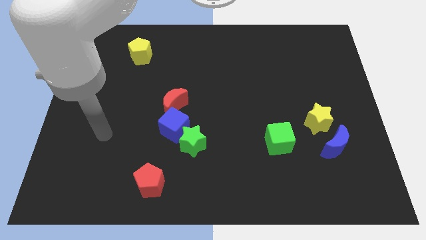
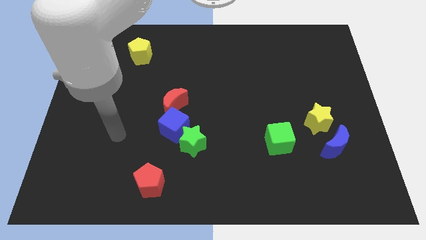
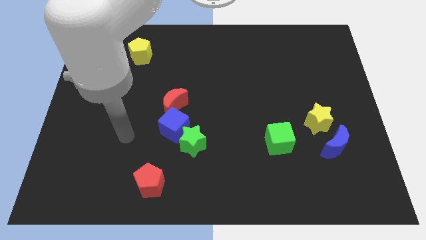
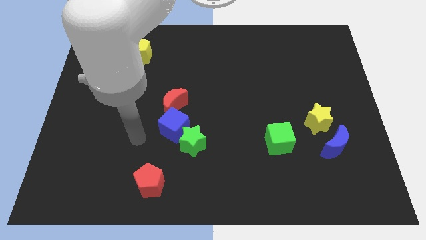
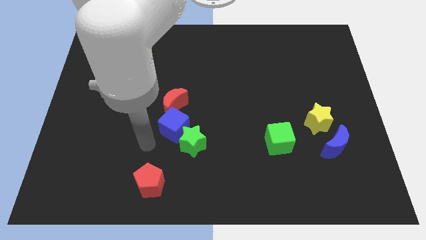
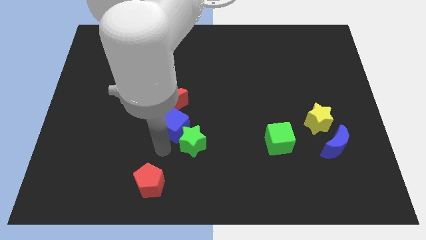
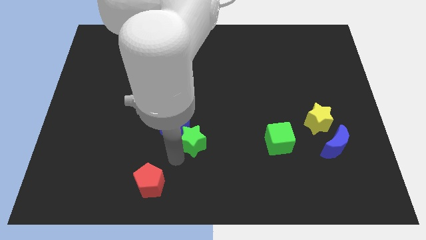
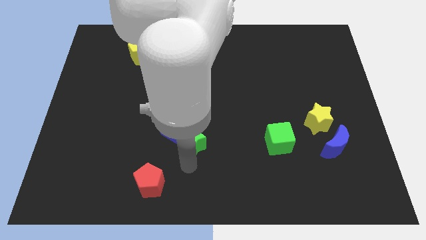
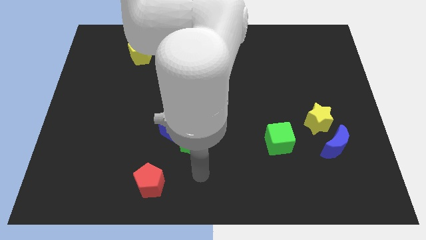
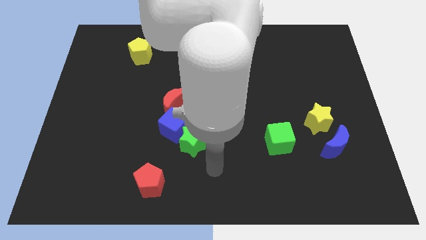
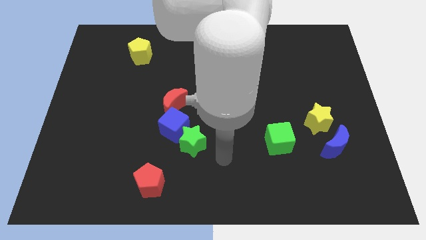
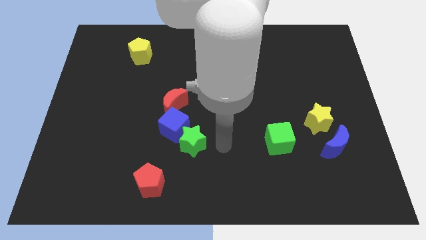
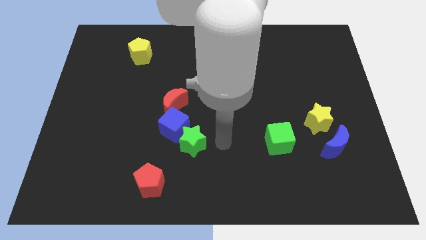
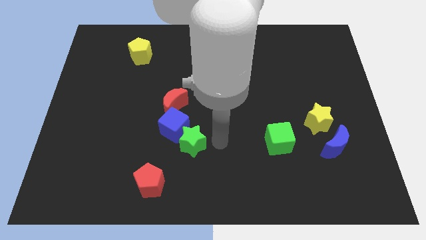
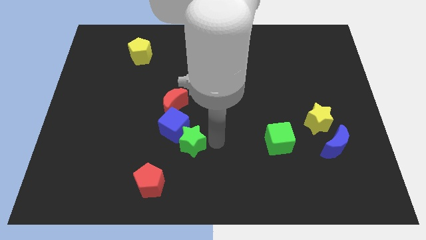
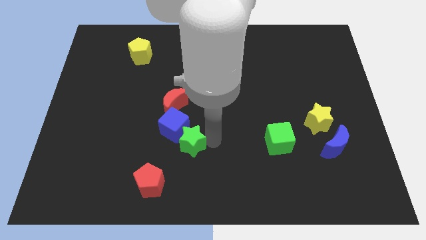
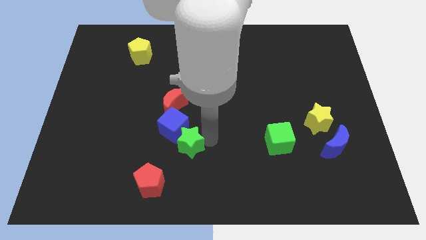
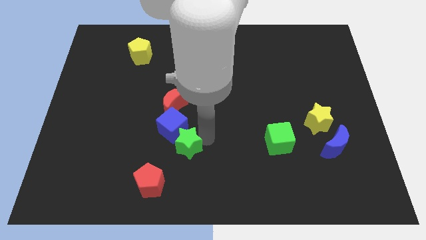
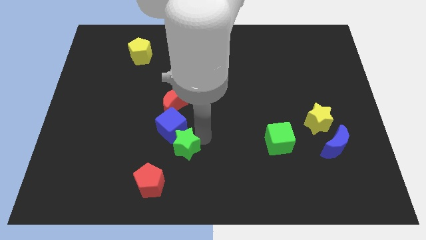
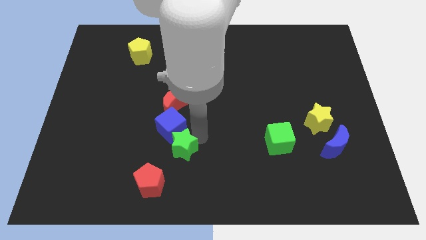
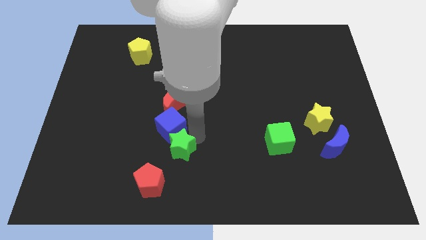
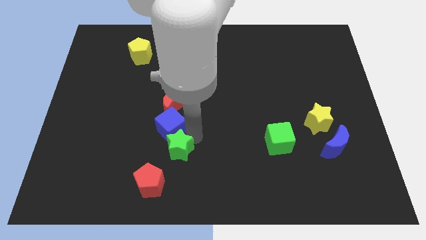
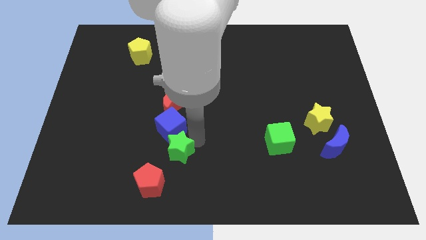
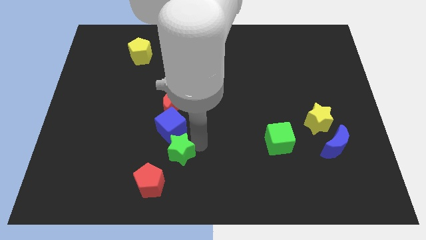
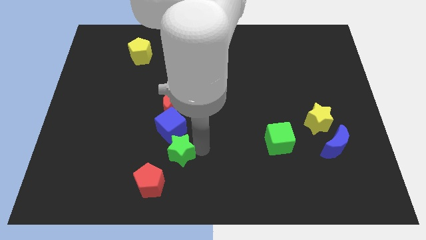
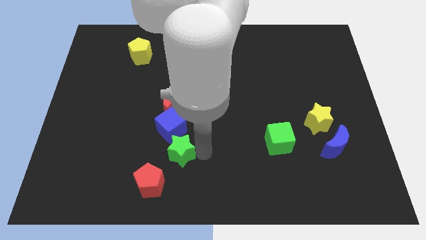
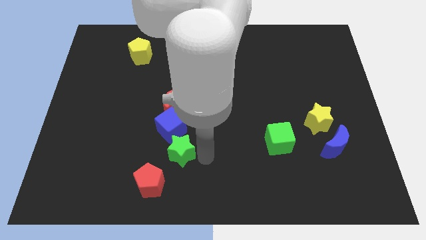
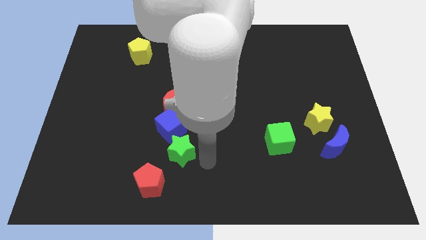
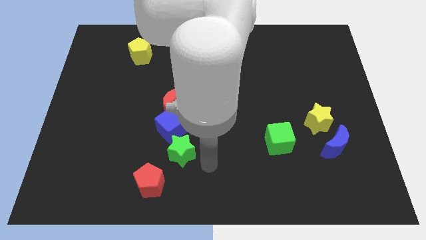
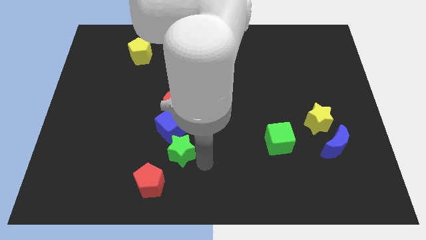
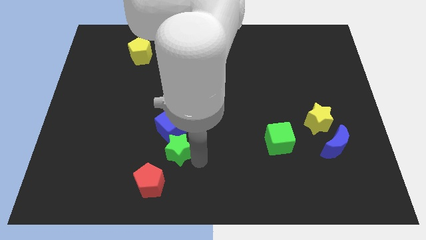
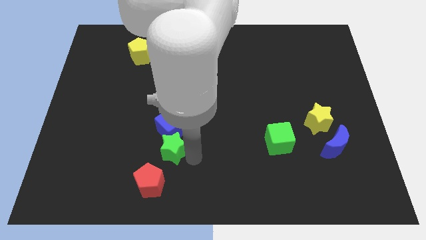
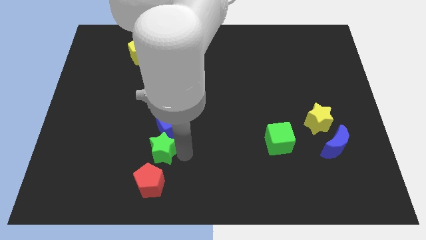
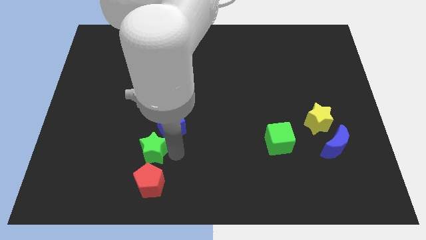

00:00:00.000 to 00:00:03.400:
slide the green star to the left slightly

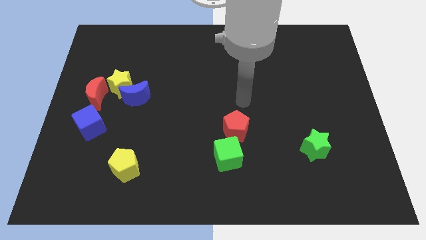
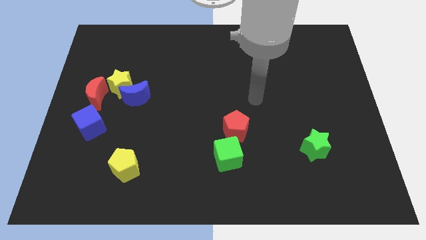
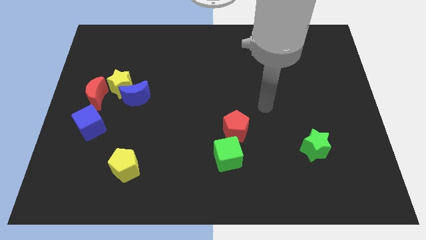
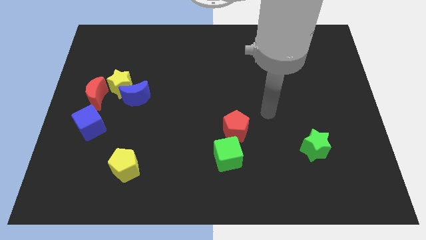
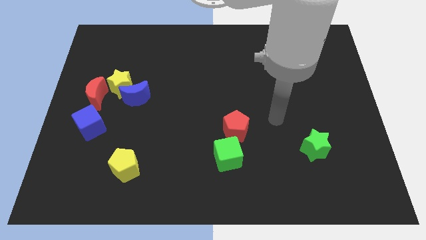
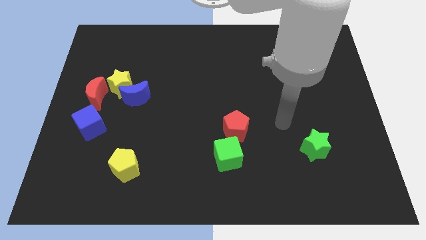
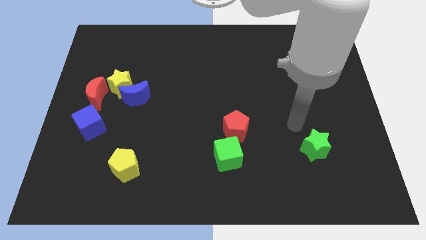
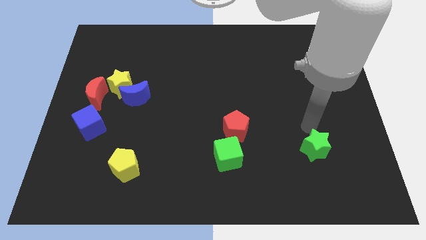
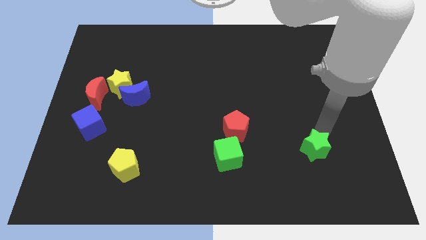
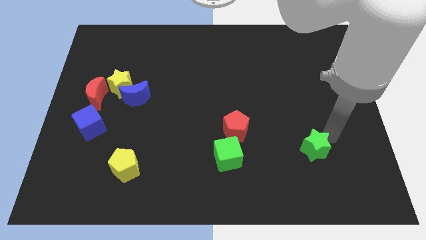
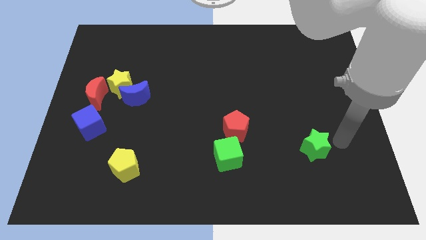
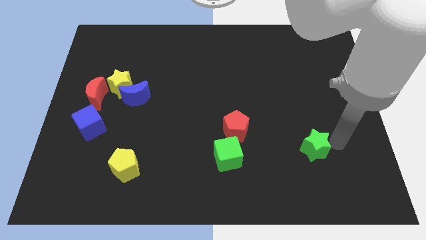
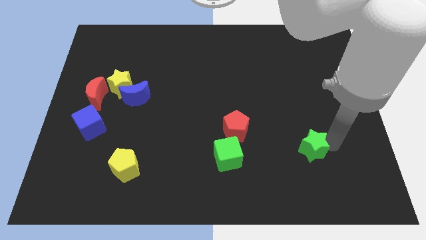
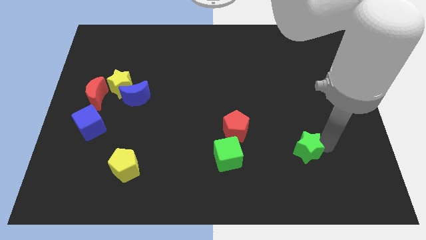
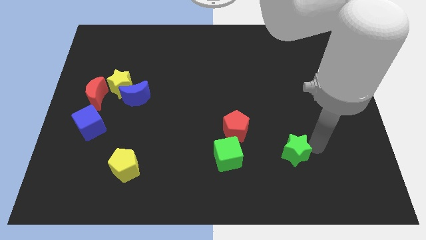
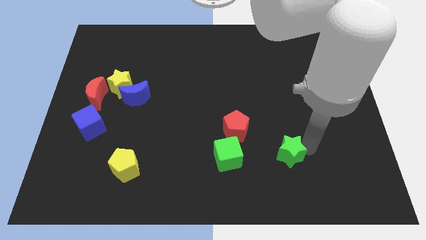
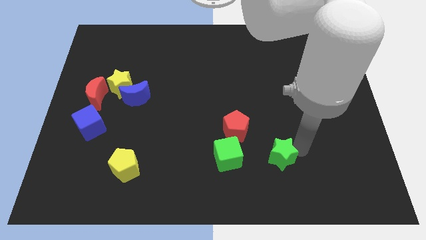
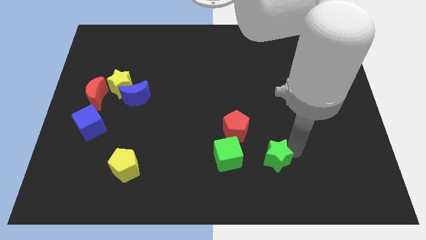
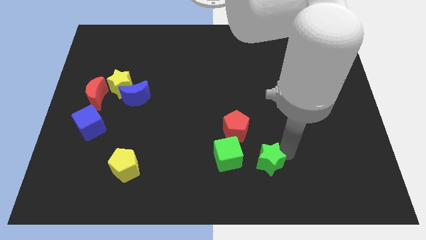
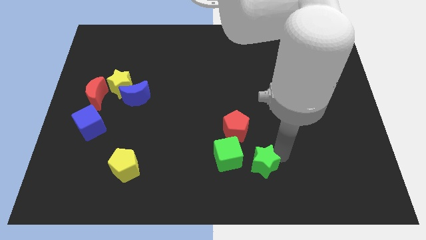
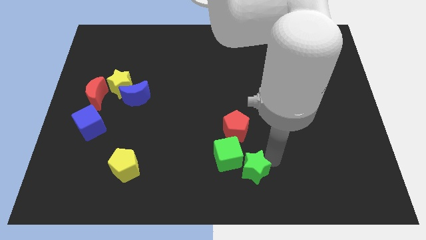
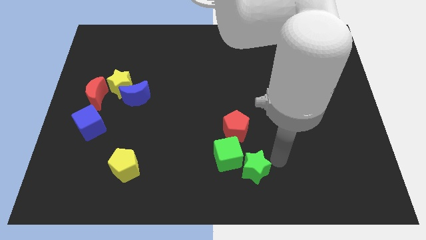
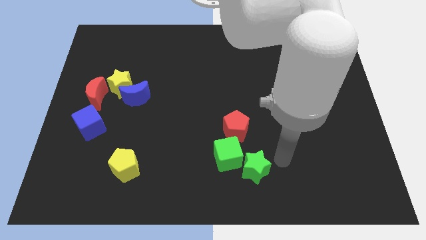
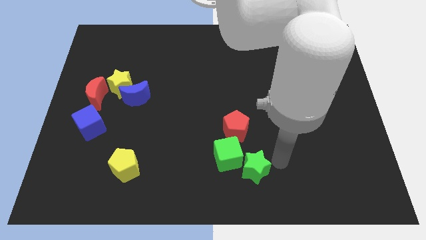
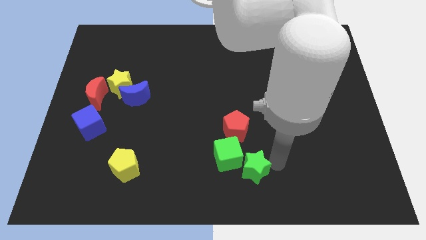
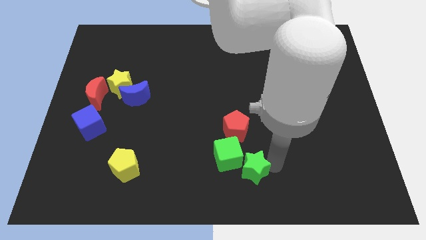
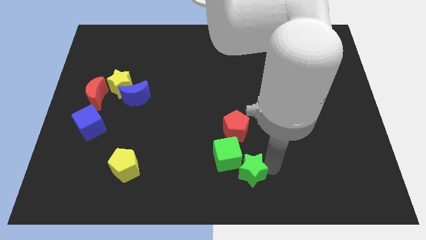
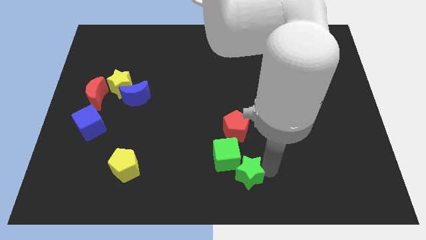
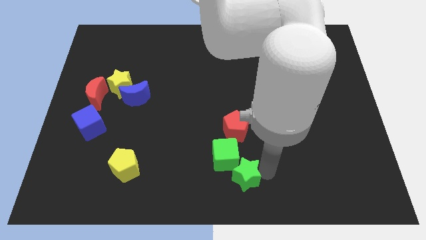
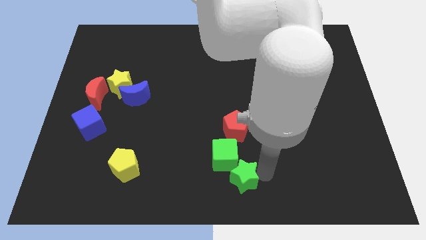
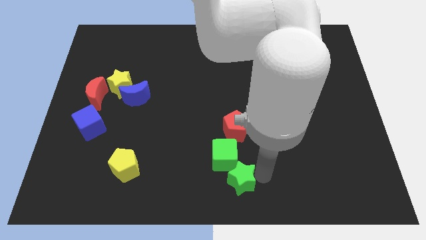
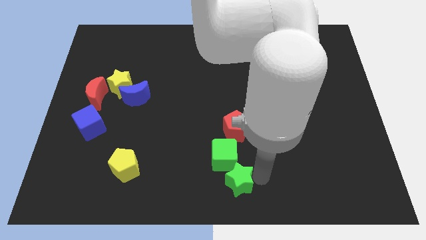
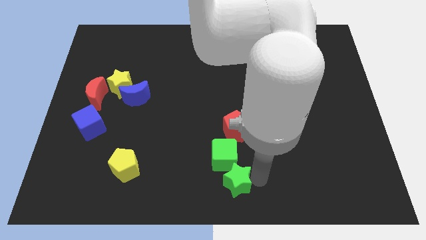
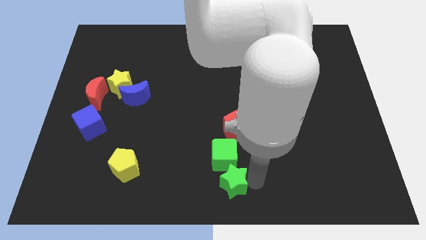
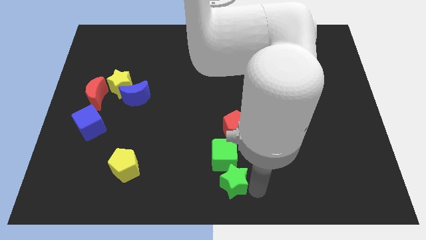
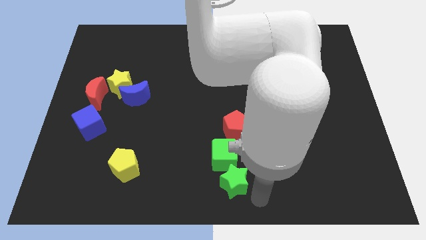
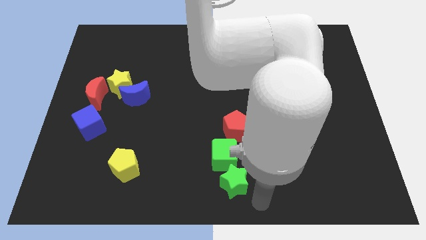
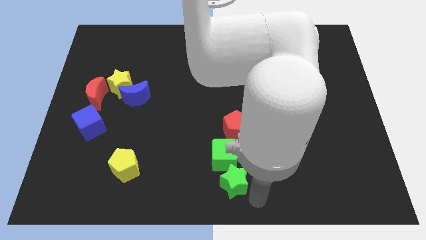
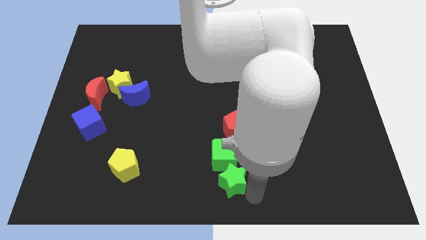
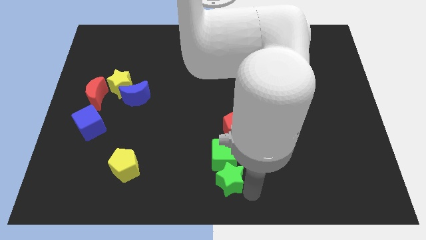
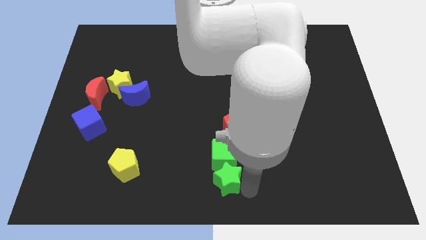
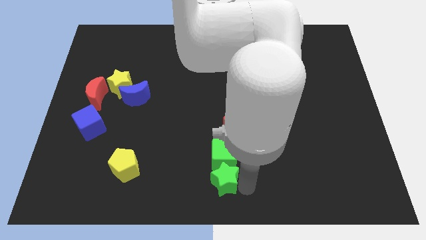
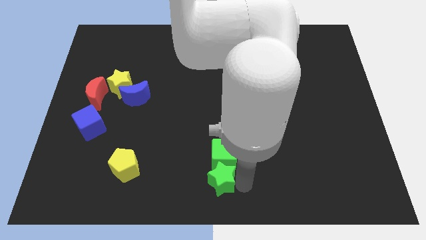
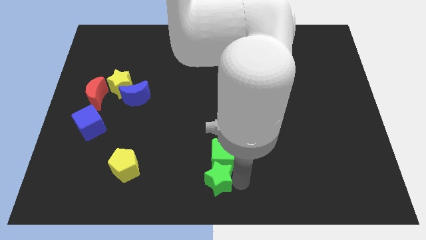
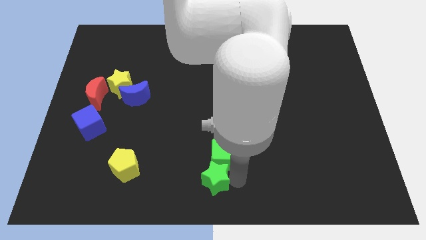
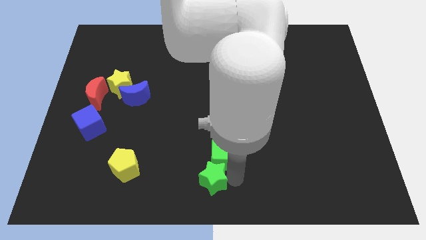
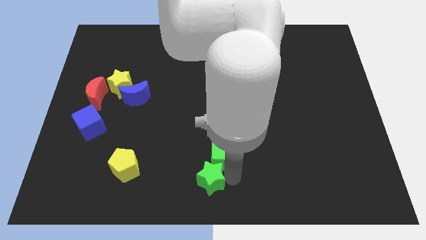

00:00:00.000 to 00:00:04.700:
push the green star to the left

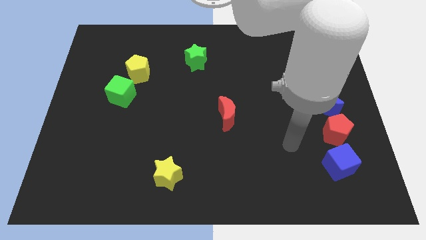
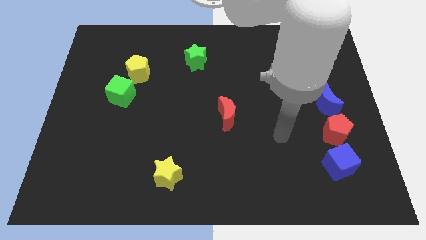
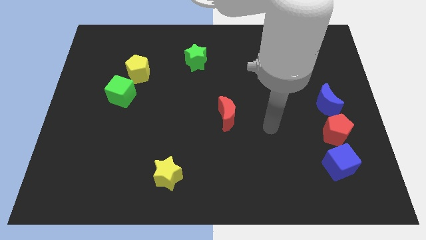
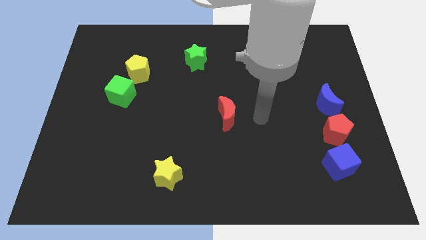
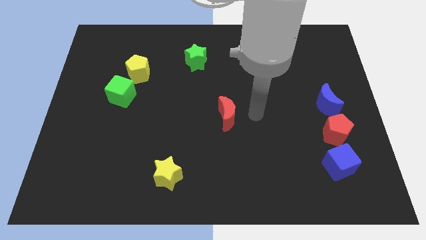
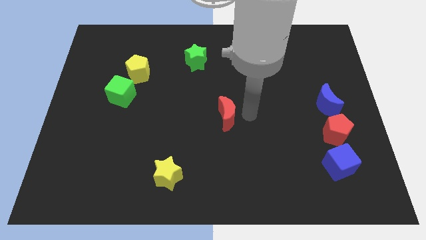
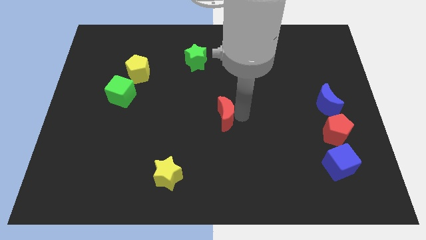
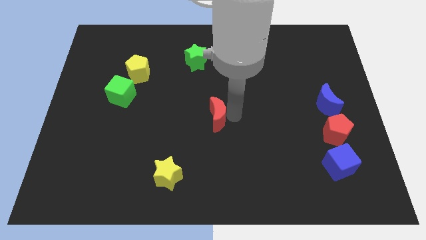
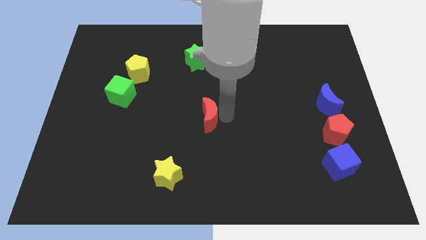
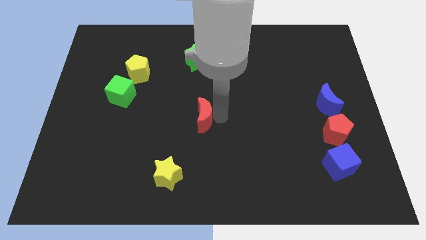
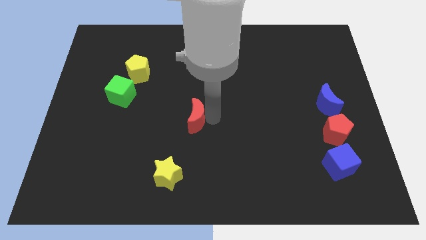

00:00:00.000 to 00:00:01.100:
move the red moon a bit to the left
